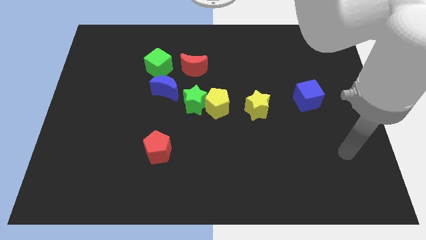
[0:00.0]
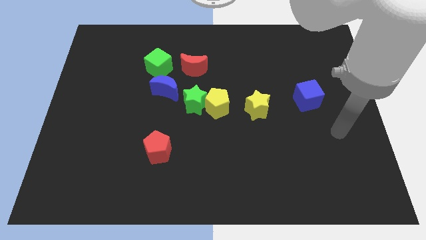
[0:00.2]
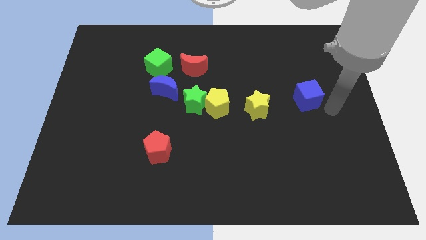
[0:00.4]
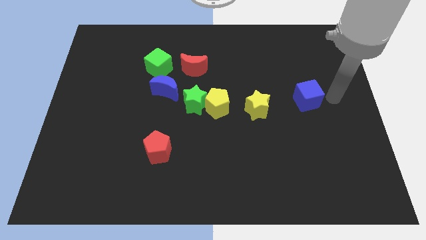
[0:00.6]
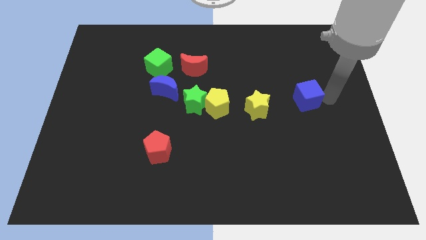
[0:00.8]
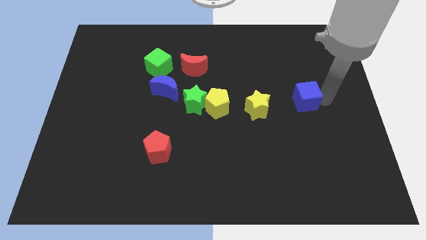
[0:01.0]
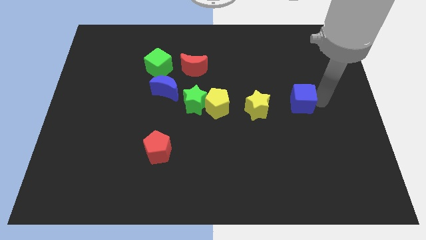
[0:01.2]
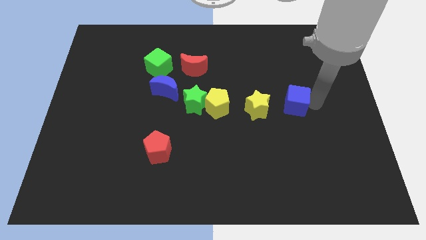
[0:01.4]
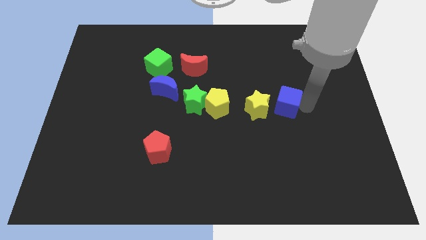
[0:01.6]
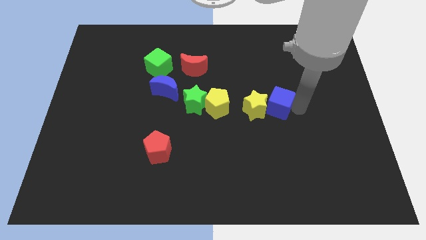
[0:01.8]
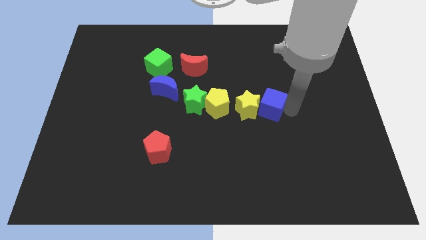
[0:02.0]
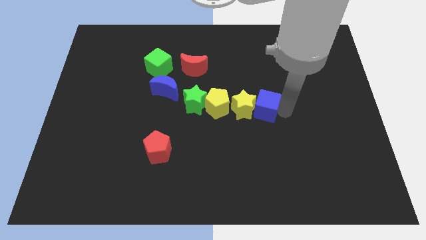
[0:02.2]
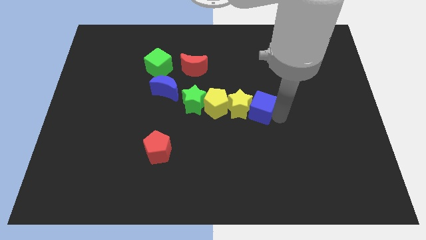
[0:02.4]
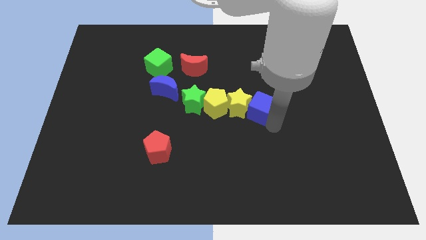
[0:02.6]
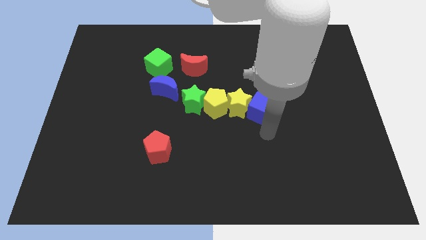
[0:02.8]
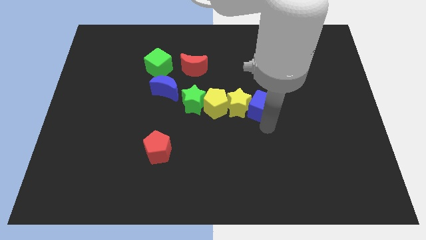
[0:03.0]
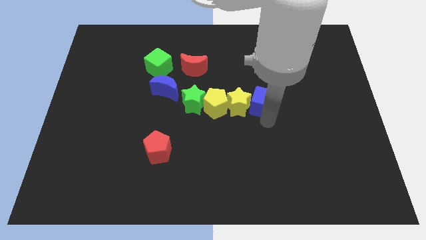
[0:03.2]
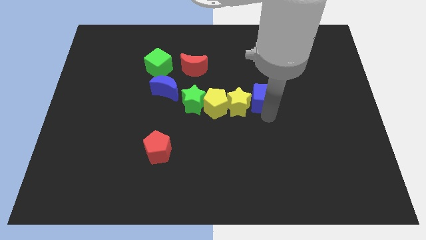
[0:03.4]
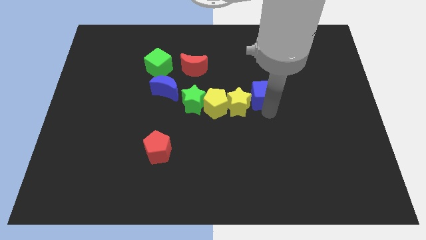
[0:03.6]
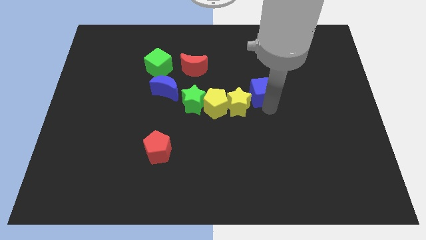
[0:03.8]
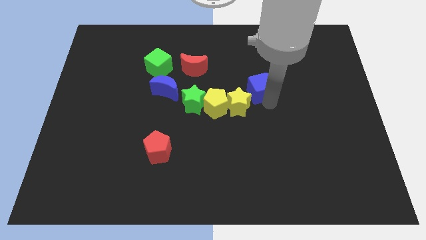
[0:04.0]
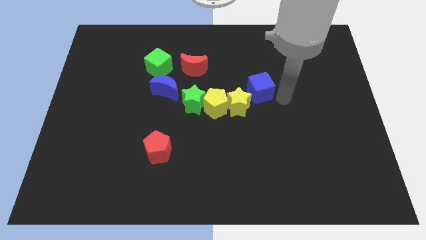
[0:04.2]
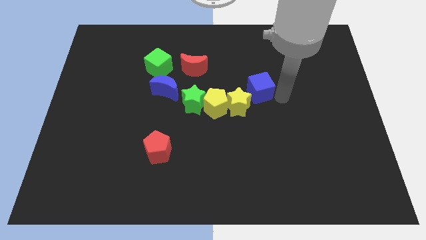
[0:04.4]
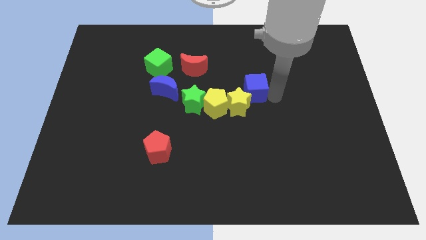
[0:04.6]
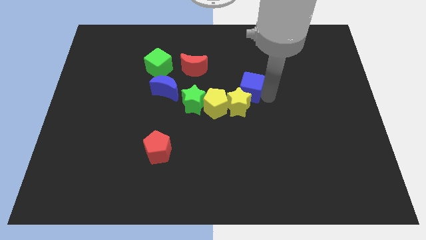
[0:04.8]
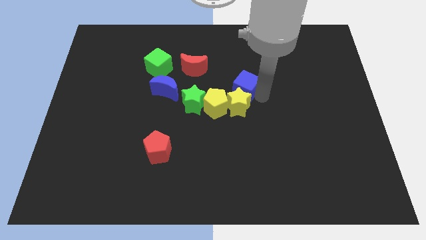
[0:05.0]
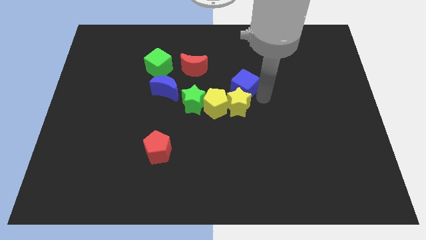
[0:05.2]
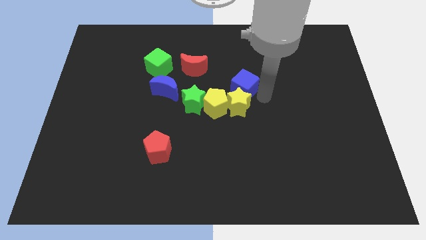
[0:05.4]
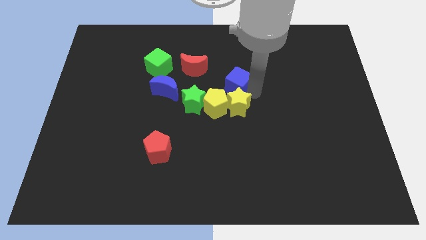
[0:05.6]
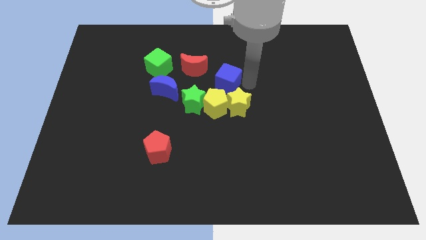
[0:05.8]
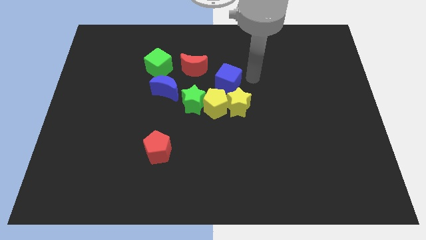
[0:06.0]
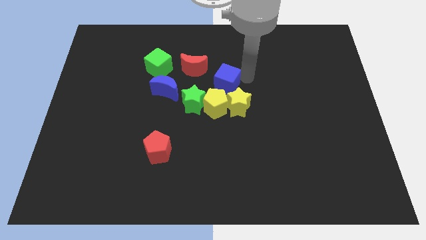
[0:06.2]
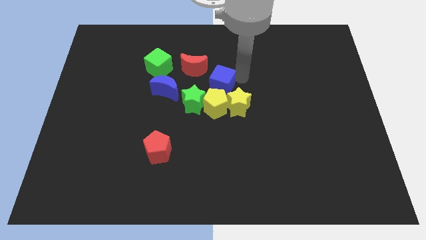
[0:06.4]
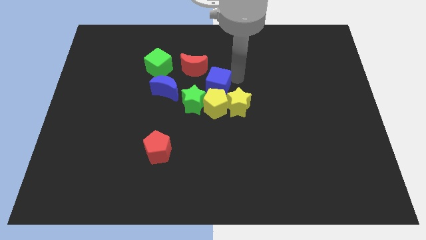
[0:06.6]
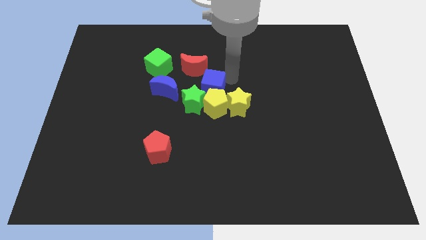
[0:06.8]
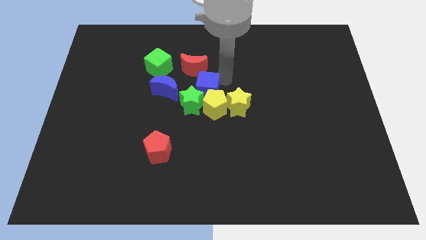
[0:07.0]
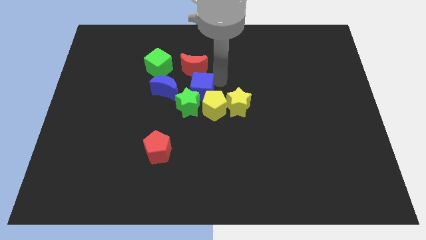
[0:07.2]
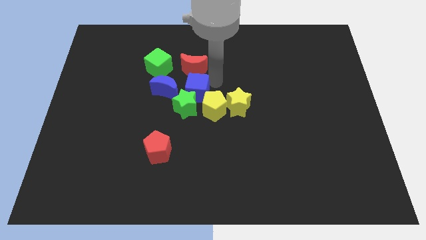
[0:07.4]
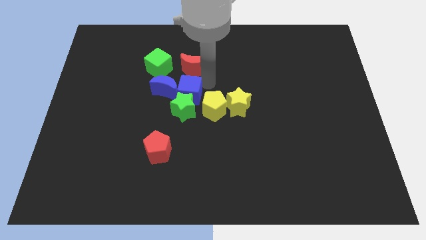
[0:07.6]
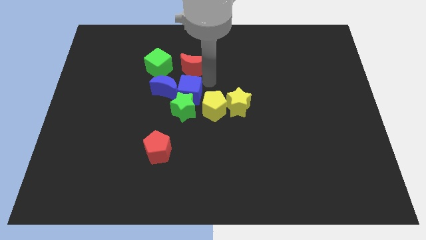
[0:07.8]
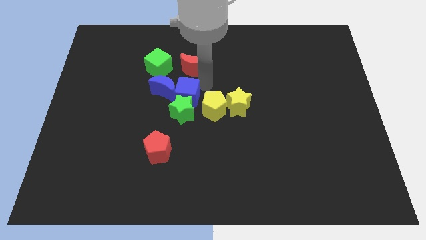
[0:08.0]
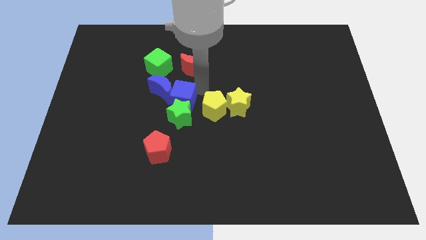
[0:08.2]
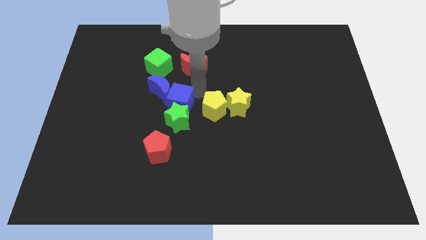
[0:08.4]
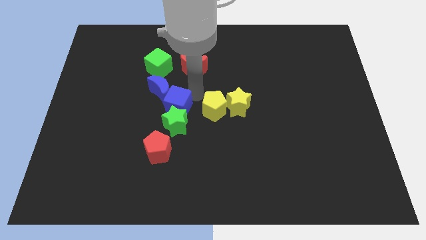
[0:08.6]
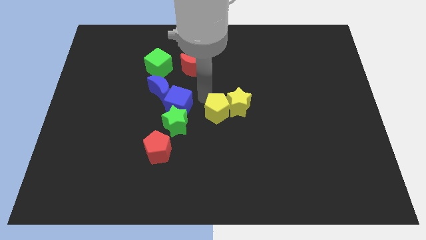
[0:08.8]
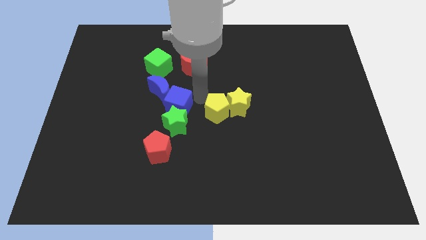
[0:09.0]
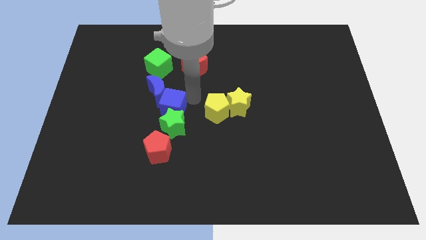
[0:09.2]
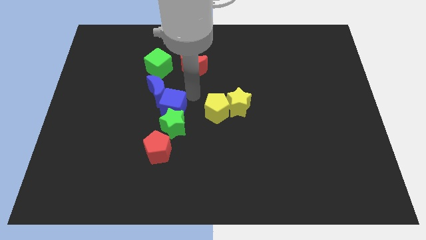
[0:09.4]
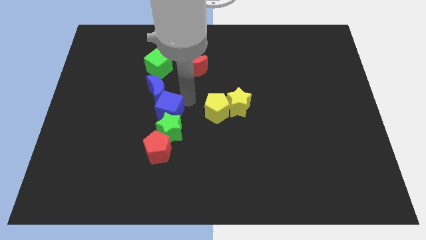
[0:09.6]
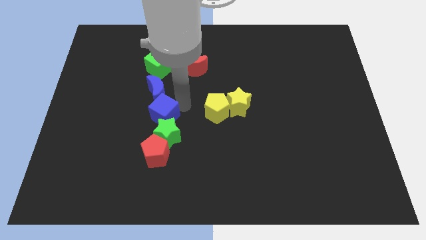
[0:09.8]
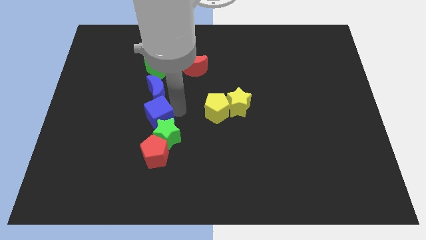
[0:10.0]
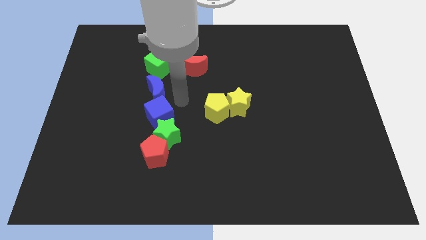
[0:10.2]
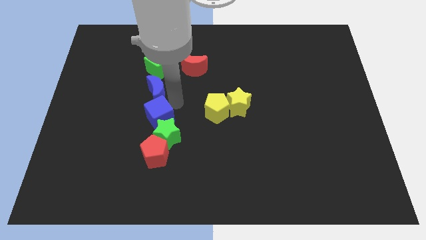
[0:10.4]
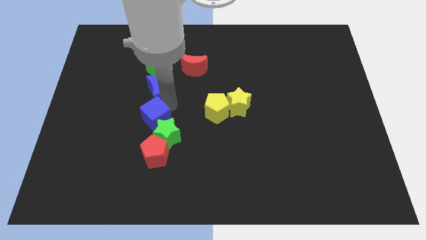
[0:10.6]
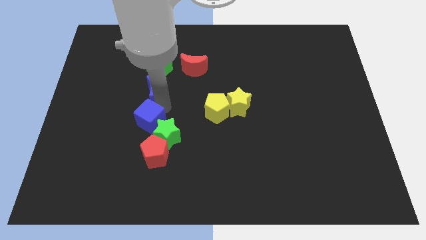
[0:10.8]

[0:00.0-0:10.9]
put the blue cube to the top left side of the red pentagon

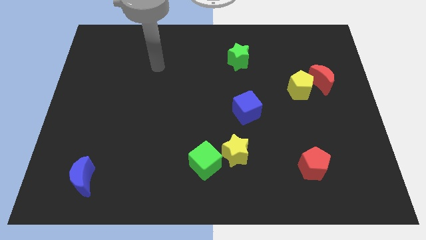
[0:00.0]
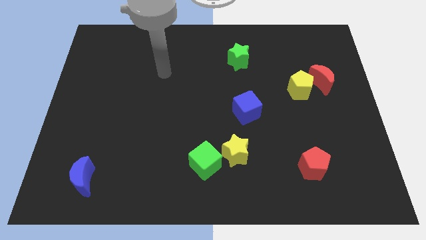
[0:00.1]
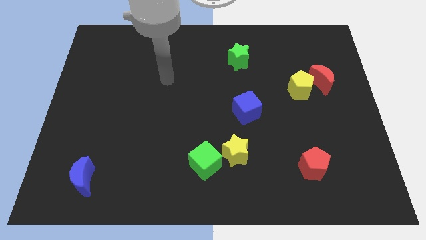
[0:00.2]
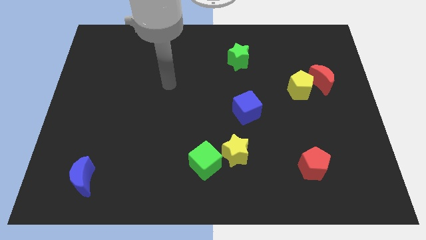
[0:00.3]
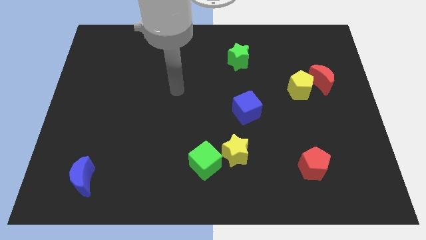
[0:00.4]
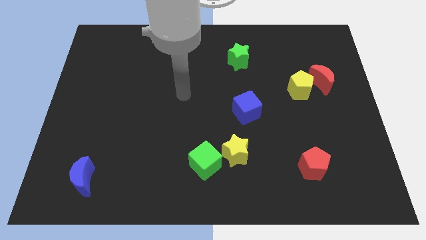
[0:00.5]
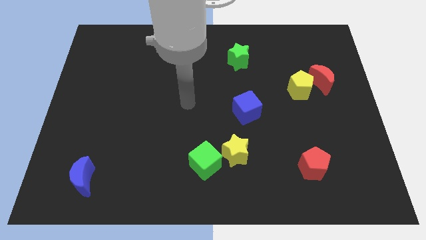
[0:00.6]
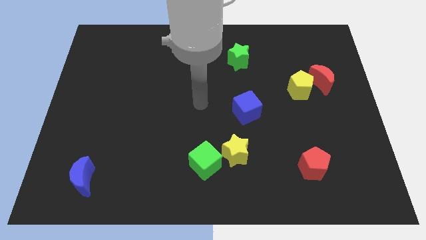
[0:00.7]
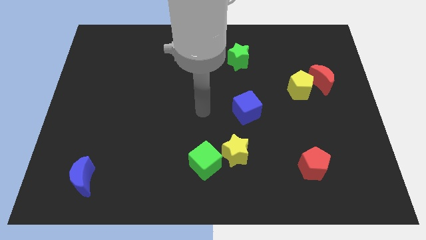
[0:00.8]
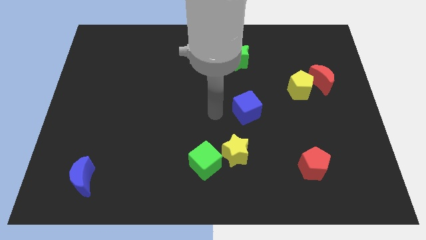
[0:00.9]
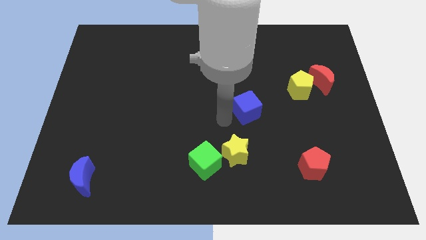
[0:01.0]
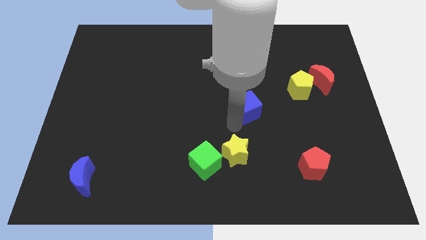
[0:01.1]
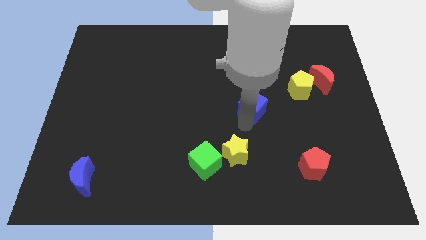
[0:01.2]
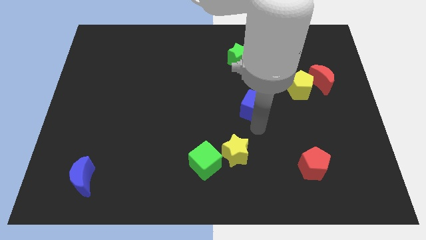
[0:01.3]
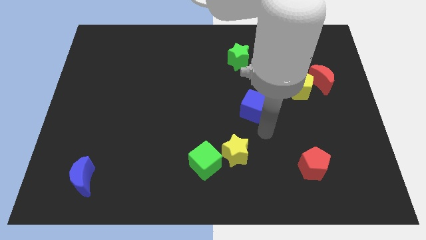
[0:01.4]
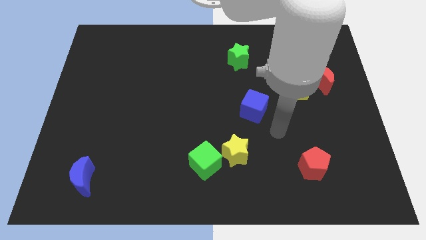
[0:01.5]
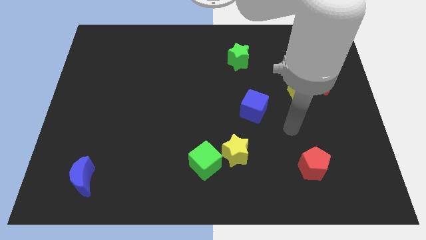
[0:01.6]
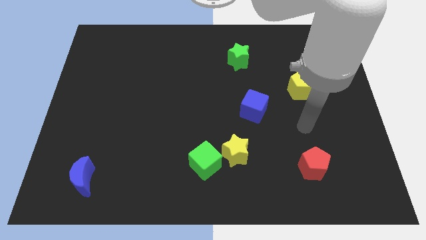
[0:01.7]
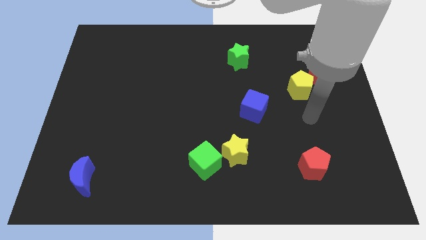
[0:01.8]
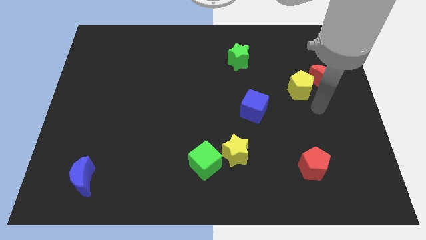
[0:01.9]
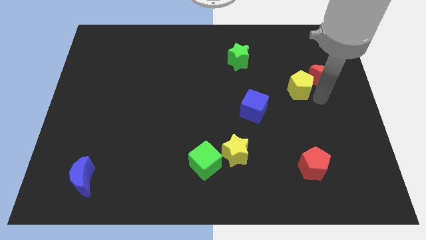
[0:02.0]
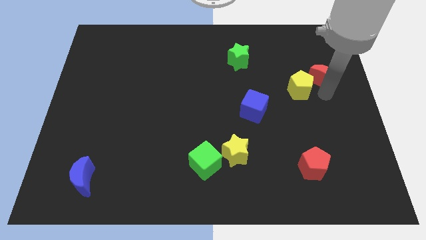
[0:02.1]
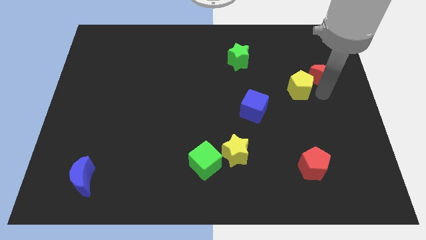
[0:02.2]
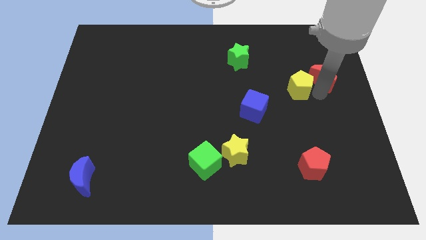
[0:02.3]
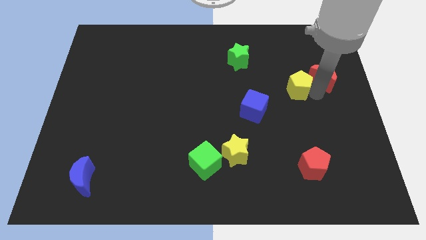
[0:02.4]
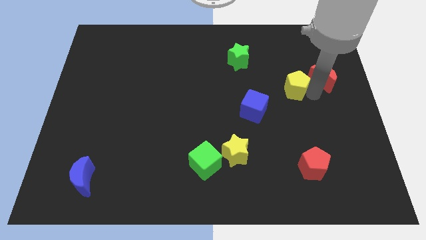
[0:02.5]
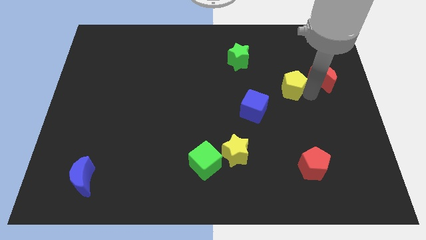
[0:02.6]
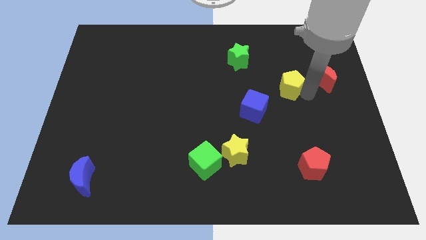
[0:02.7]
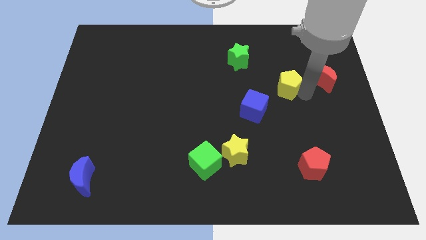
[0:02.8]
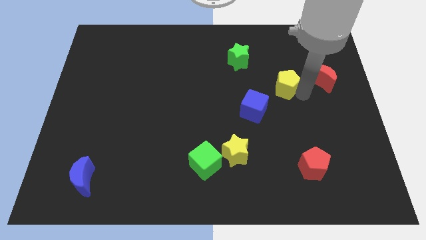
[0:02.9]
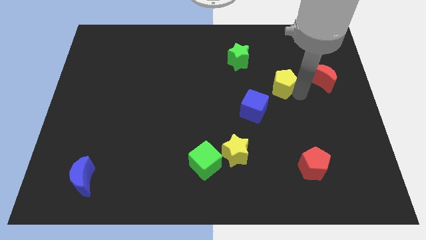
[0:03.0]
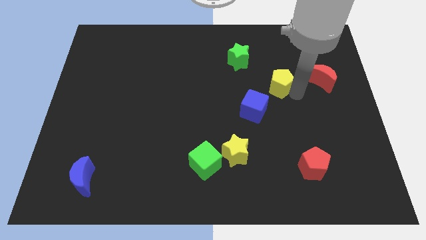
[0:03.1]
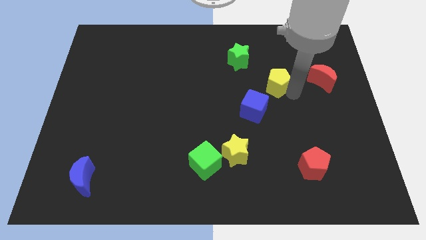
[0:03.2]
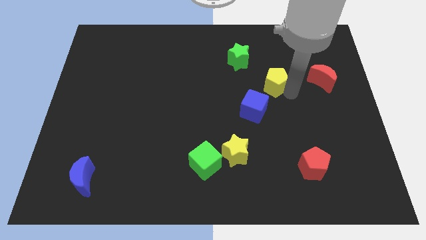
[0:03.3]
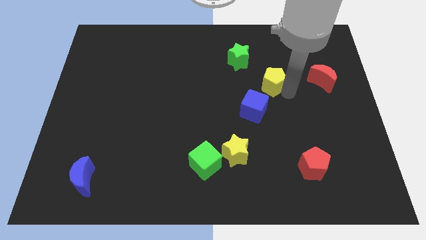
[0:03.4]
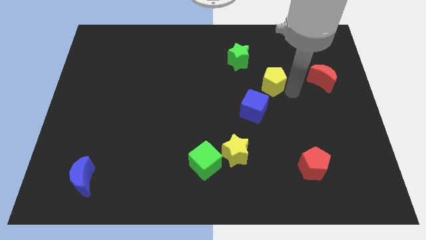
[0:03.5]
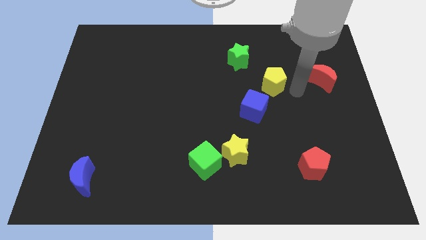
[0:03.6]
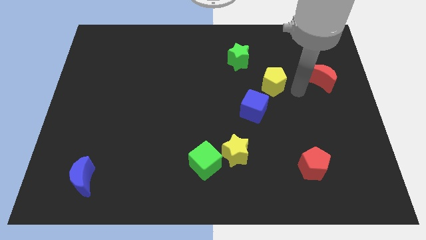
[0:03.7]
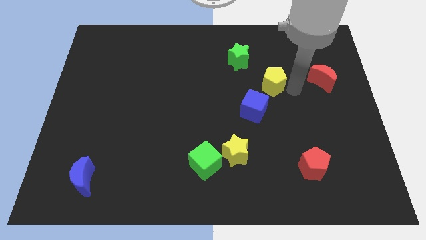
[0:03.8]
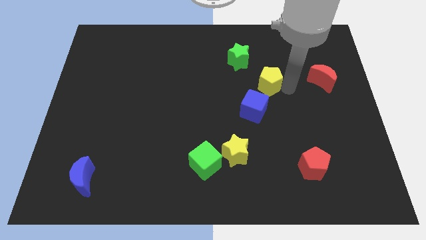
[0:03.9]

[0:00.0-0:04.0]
slide the yellow pentagon to the top side of the blue cube
